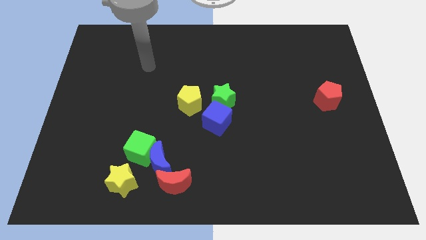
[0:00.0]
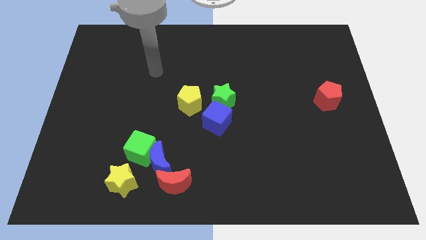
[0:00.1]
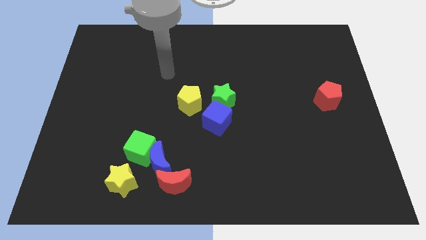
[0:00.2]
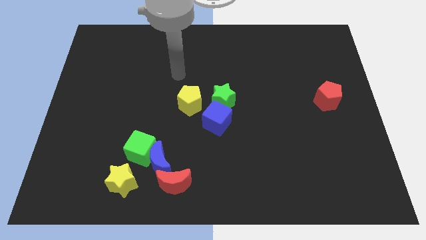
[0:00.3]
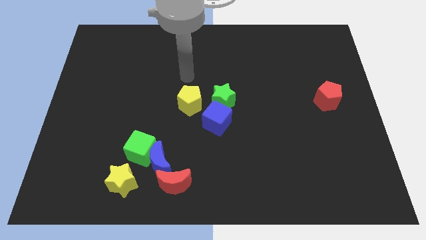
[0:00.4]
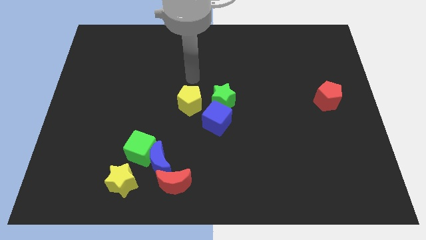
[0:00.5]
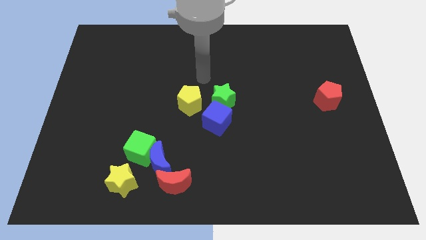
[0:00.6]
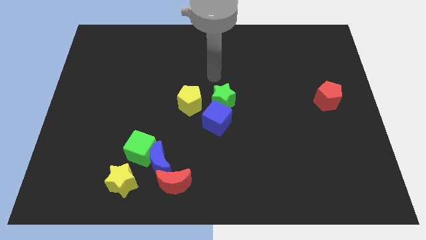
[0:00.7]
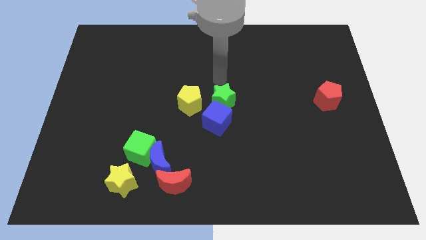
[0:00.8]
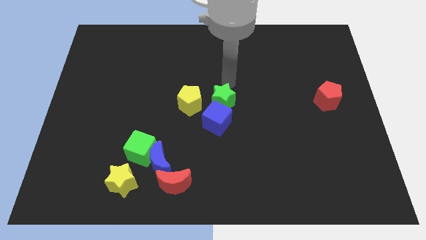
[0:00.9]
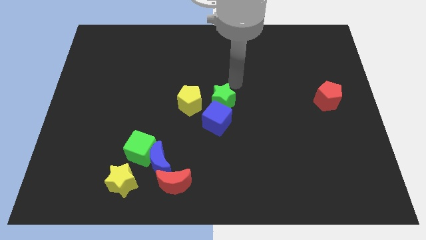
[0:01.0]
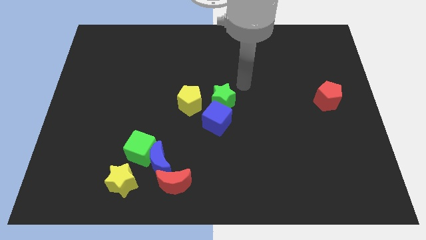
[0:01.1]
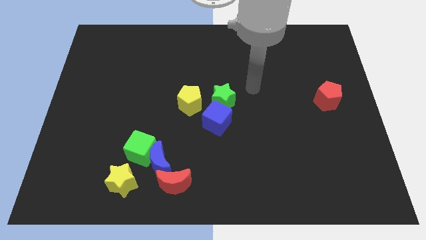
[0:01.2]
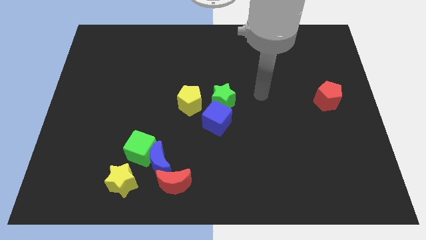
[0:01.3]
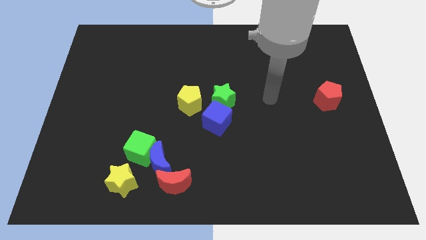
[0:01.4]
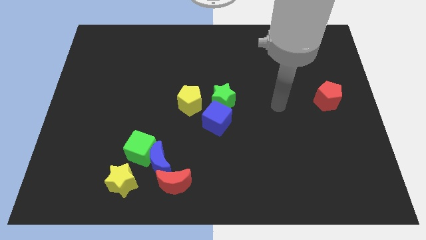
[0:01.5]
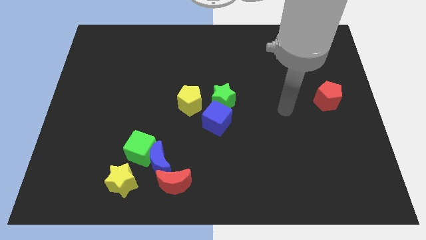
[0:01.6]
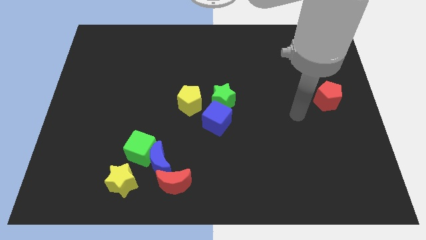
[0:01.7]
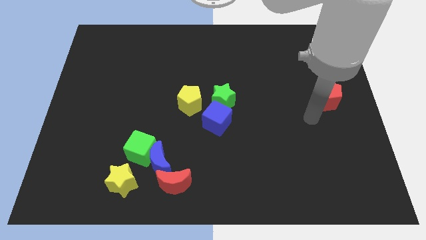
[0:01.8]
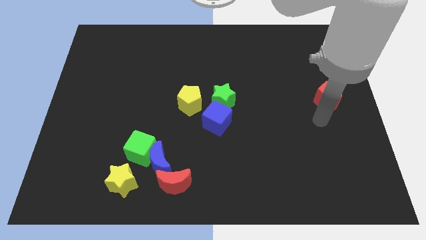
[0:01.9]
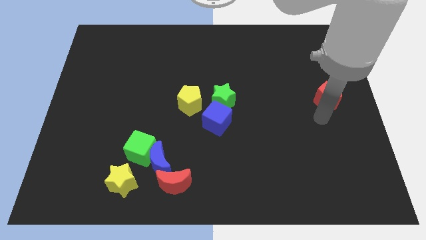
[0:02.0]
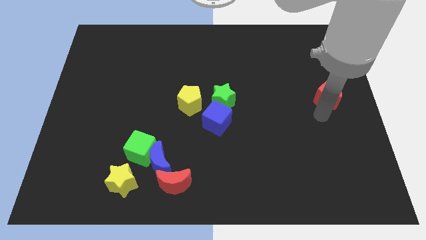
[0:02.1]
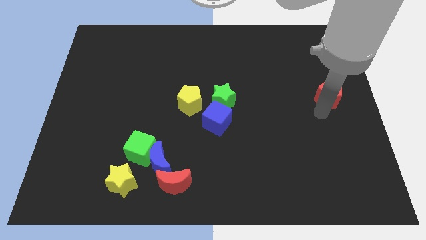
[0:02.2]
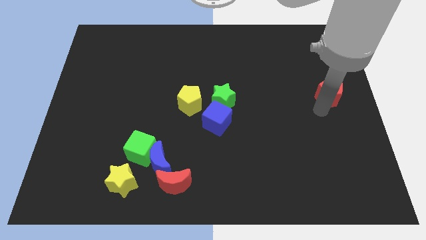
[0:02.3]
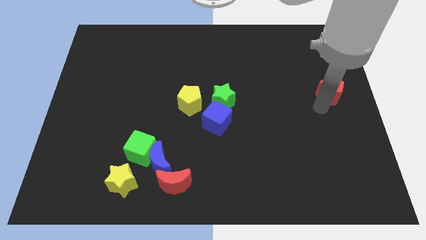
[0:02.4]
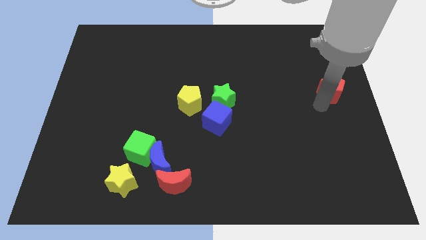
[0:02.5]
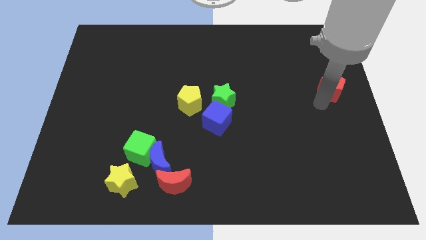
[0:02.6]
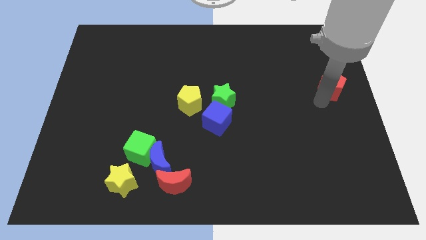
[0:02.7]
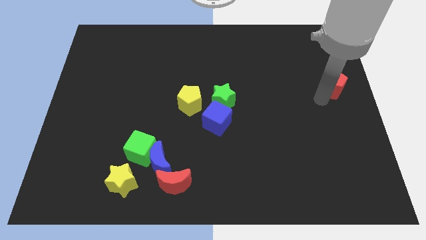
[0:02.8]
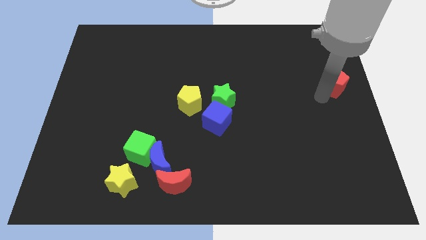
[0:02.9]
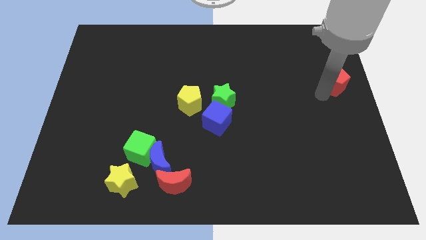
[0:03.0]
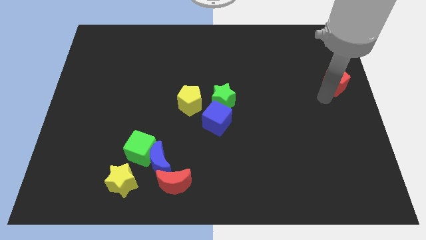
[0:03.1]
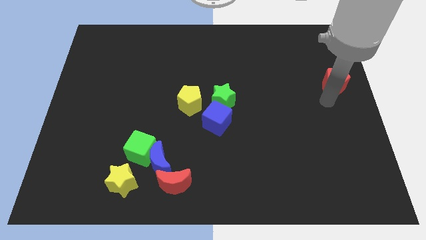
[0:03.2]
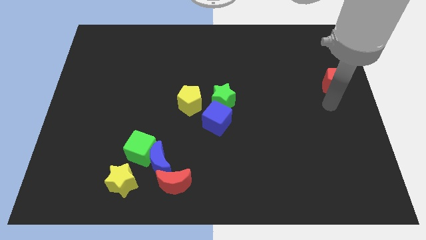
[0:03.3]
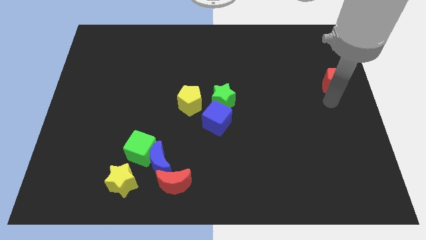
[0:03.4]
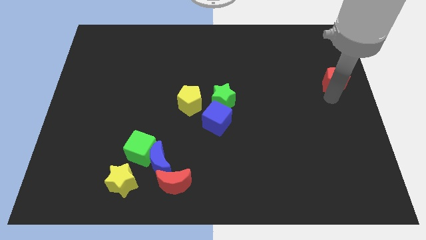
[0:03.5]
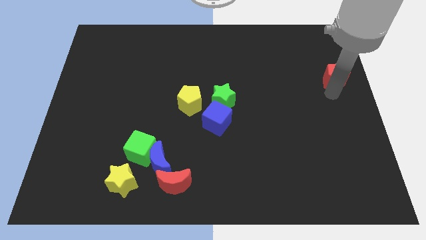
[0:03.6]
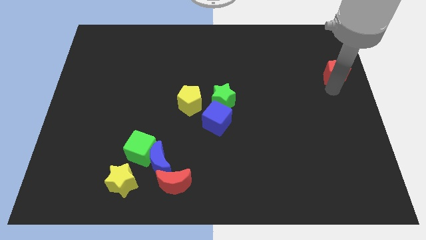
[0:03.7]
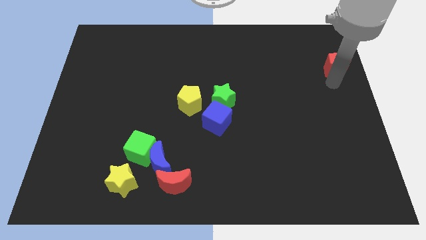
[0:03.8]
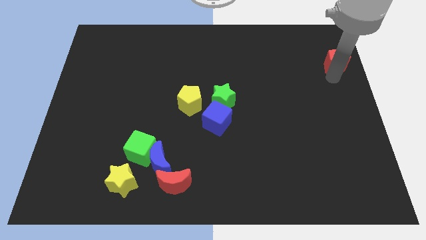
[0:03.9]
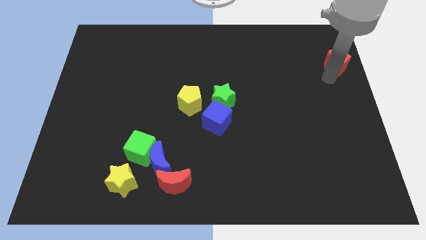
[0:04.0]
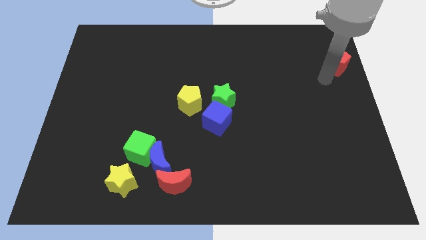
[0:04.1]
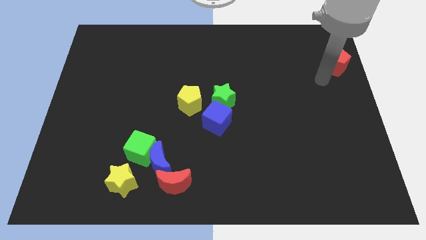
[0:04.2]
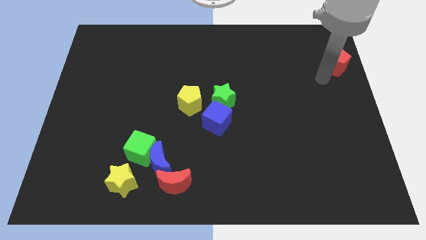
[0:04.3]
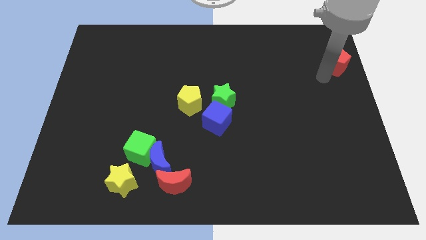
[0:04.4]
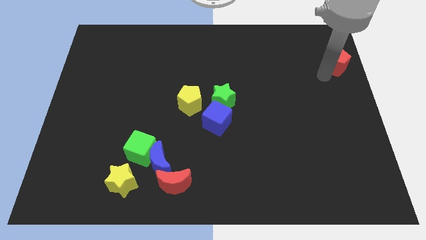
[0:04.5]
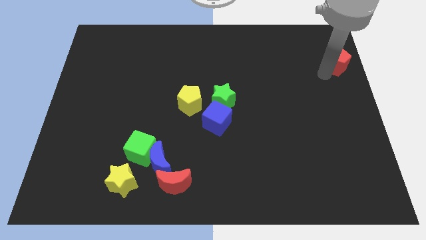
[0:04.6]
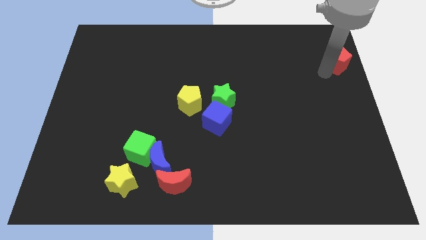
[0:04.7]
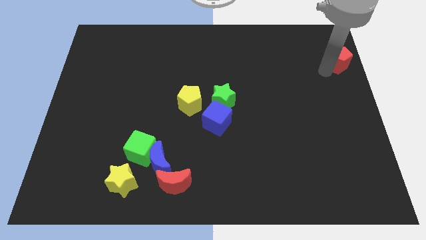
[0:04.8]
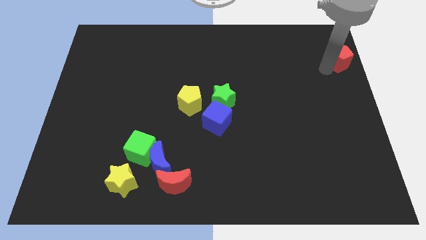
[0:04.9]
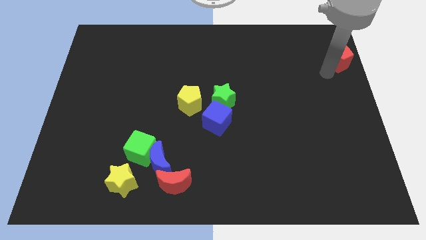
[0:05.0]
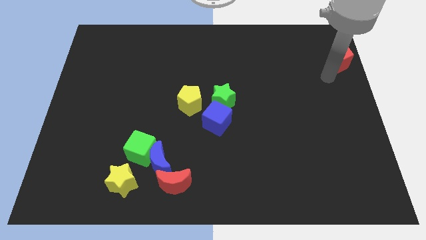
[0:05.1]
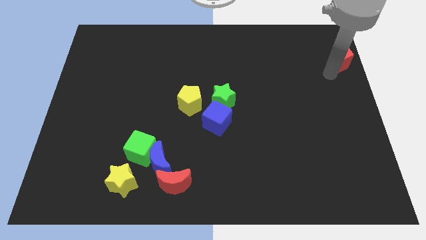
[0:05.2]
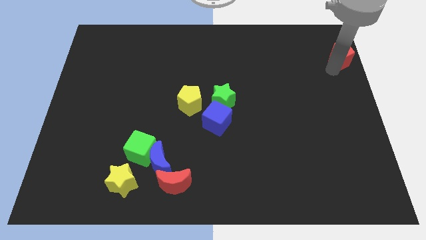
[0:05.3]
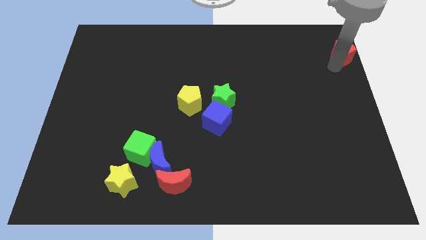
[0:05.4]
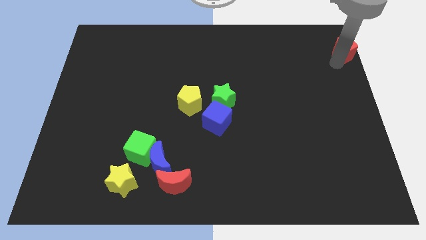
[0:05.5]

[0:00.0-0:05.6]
push the red pentagon to the top right of the board

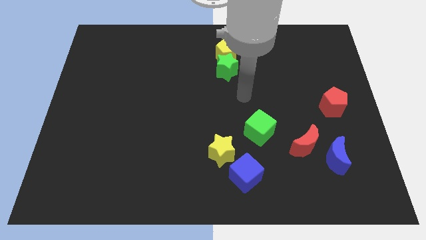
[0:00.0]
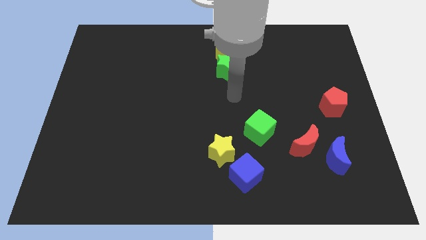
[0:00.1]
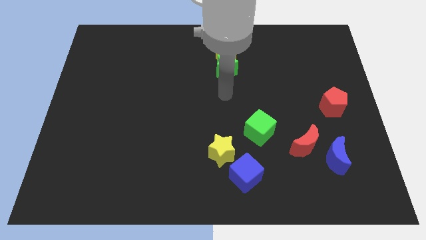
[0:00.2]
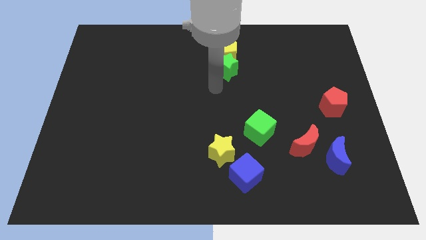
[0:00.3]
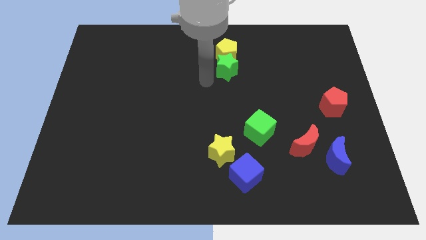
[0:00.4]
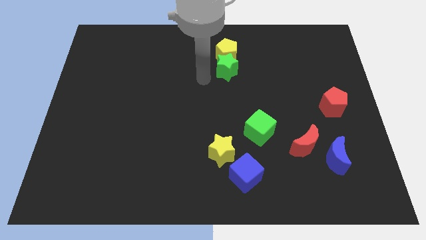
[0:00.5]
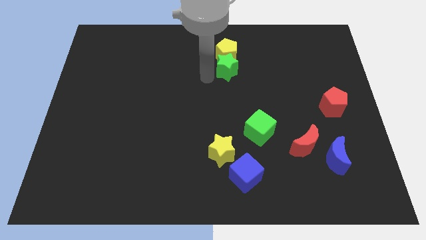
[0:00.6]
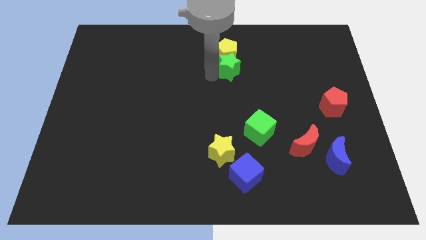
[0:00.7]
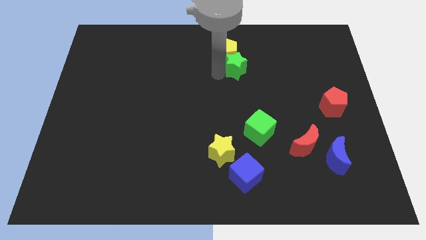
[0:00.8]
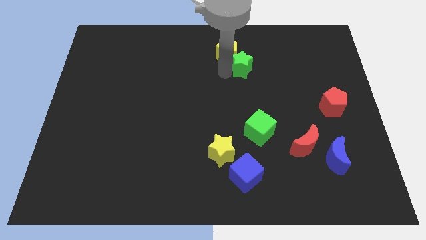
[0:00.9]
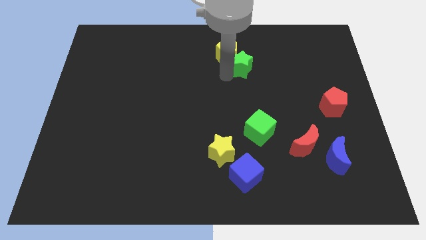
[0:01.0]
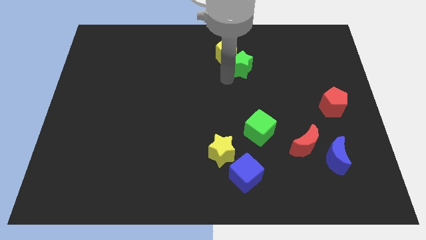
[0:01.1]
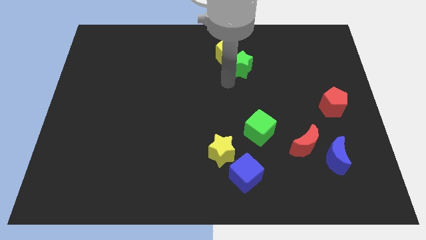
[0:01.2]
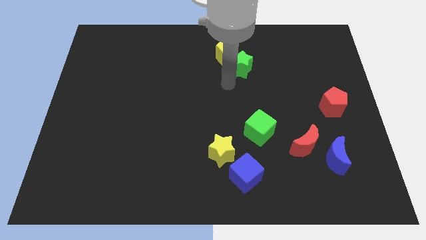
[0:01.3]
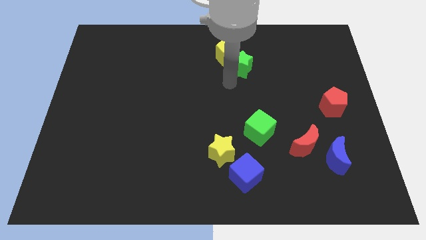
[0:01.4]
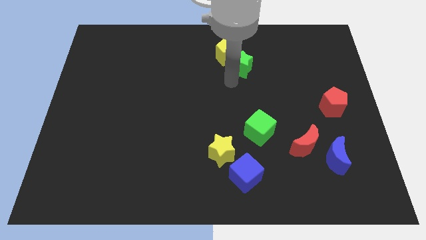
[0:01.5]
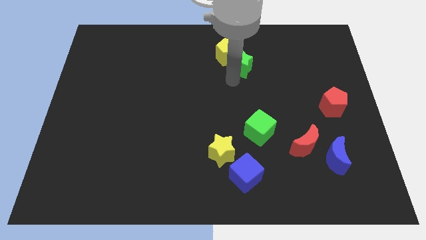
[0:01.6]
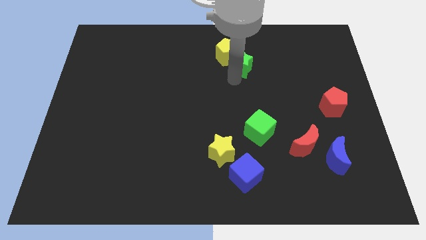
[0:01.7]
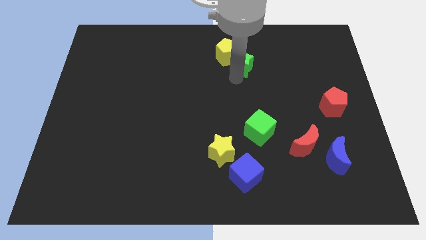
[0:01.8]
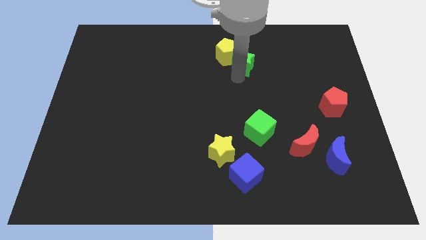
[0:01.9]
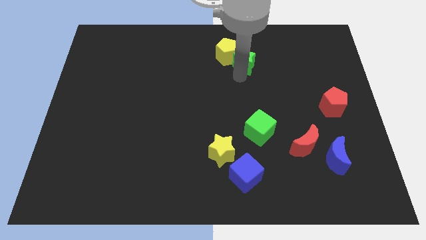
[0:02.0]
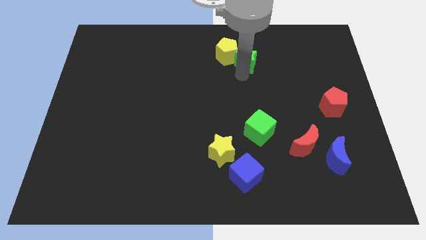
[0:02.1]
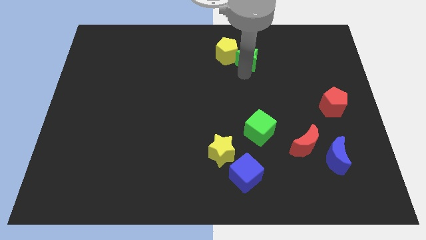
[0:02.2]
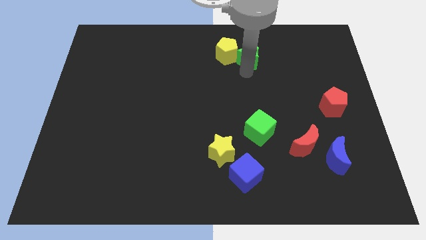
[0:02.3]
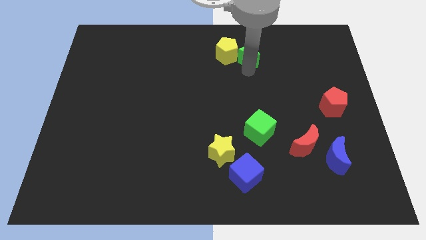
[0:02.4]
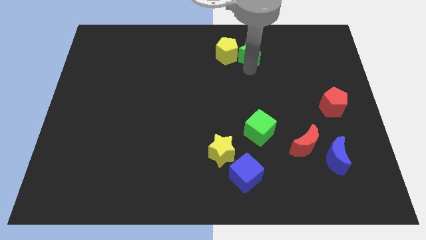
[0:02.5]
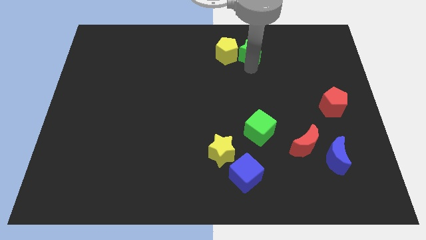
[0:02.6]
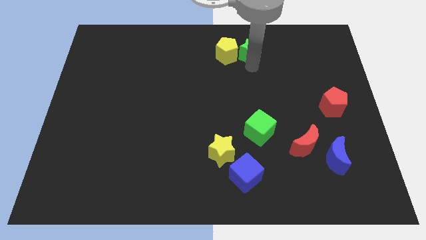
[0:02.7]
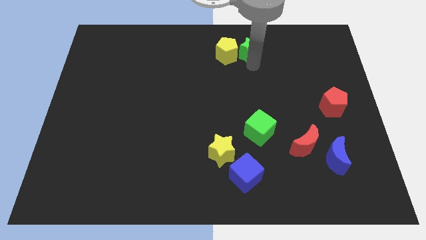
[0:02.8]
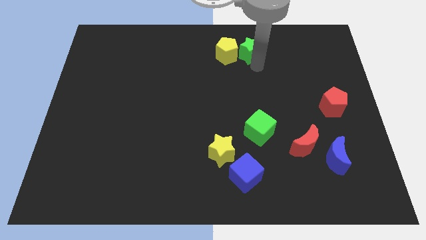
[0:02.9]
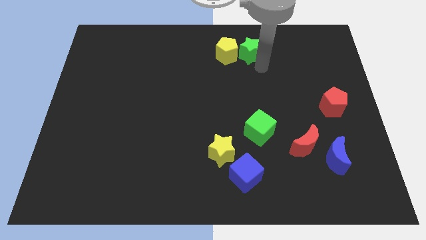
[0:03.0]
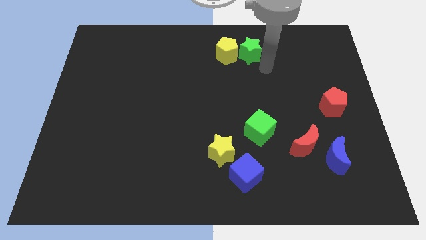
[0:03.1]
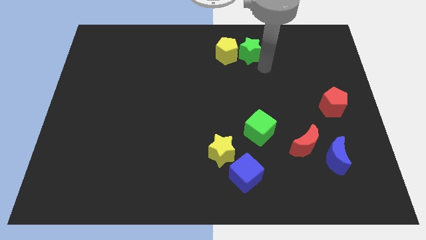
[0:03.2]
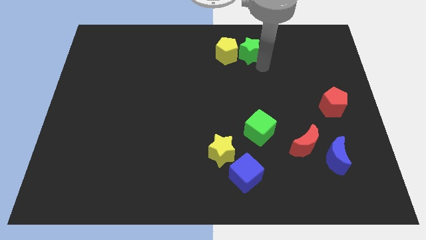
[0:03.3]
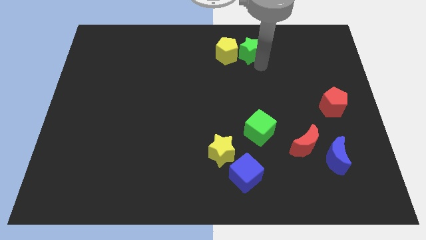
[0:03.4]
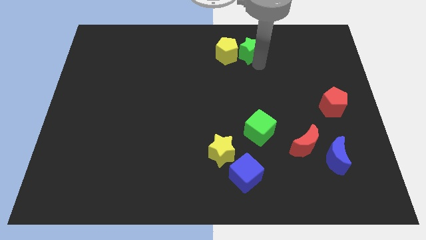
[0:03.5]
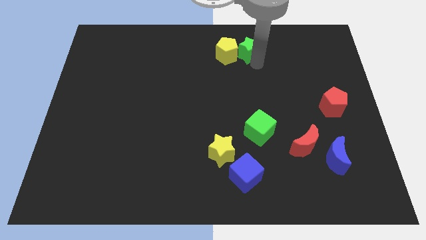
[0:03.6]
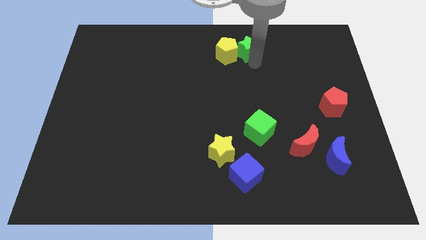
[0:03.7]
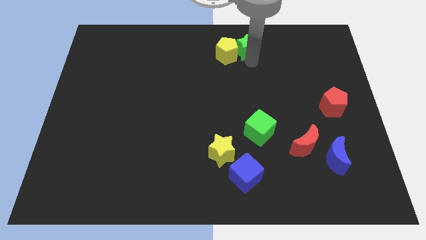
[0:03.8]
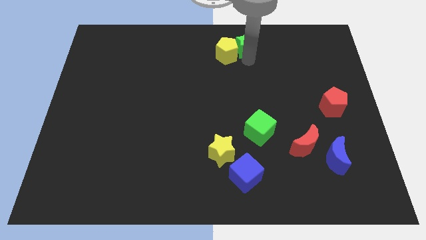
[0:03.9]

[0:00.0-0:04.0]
put the green star to the top side
